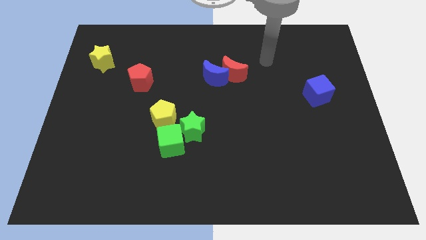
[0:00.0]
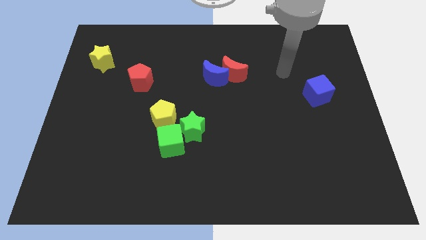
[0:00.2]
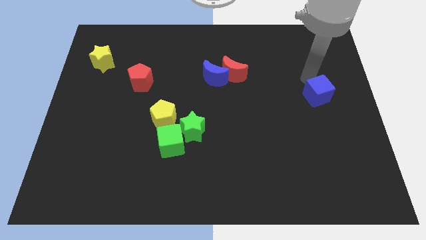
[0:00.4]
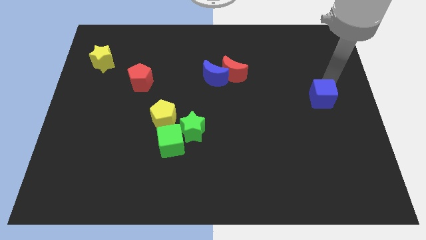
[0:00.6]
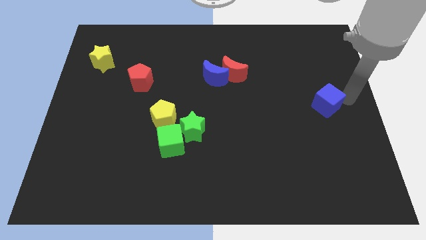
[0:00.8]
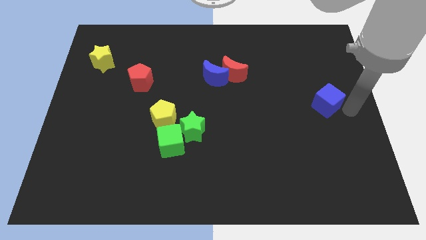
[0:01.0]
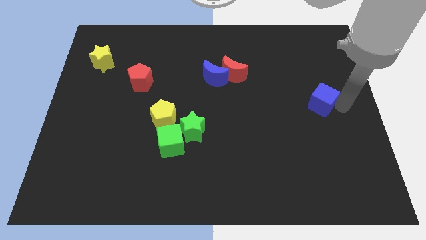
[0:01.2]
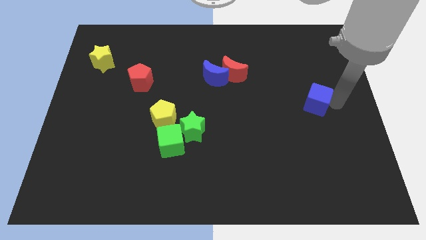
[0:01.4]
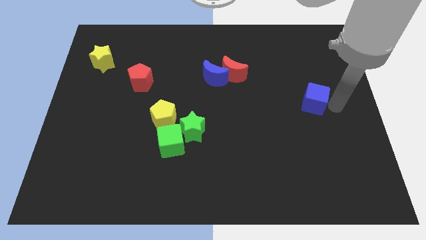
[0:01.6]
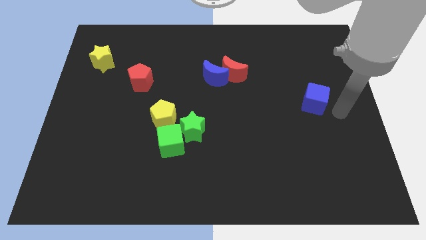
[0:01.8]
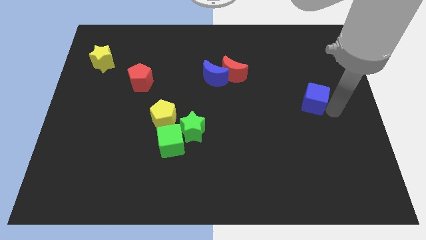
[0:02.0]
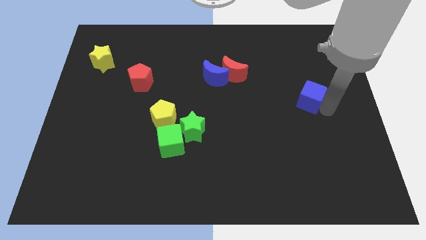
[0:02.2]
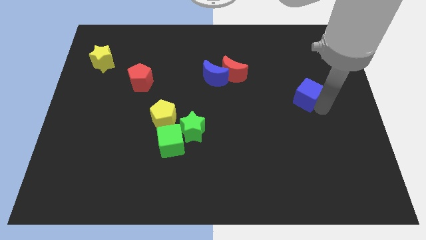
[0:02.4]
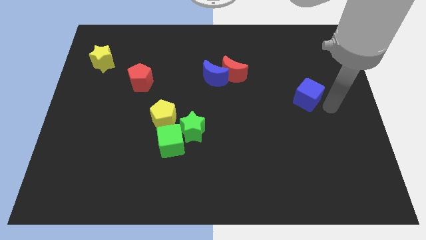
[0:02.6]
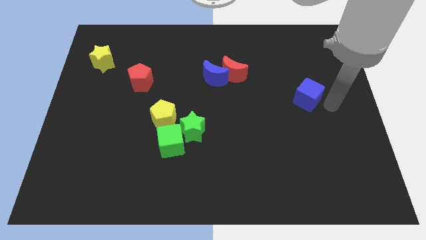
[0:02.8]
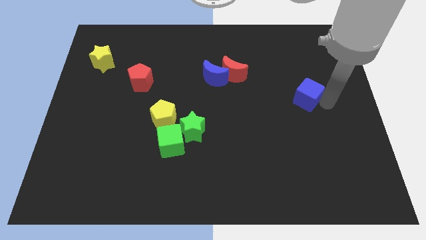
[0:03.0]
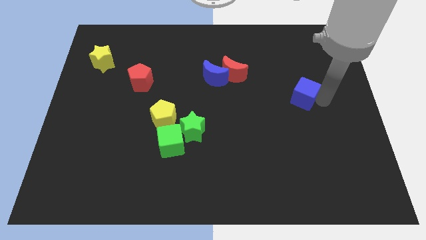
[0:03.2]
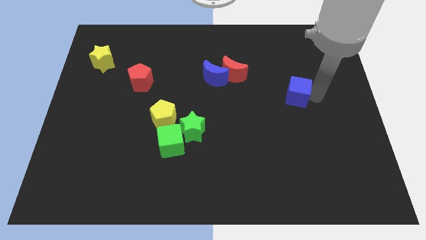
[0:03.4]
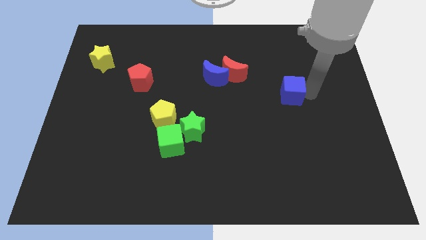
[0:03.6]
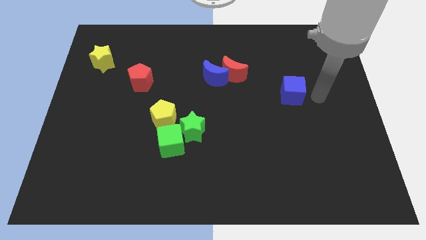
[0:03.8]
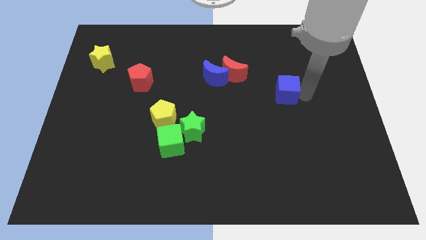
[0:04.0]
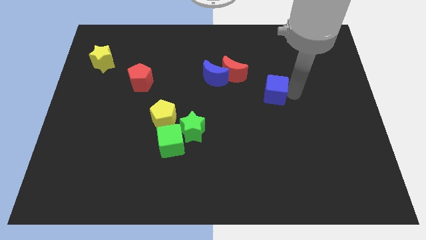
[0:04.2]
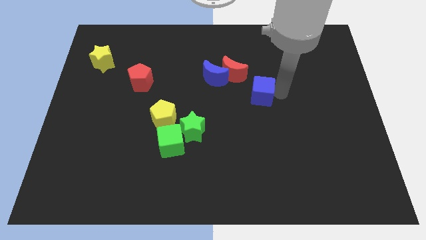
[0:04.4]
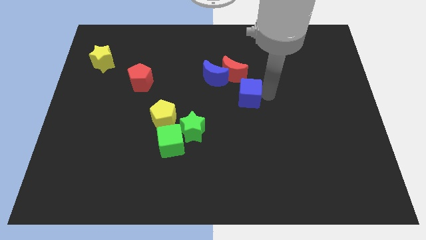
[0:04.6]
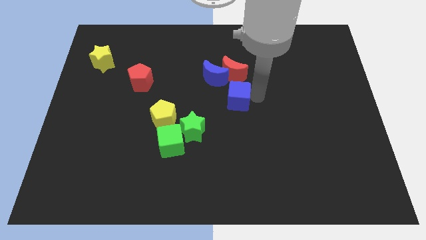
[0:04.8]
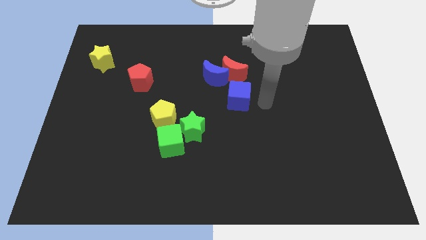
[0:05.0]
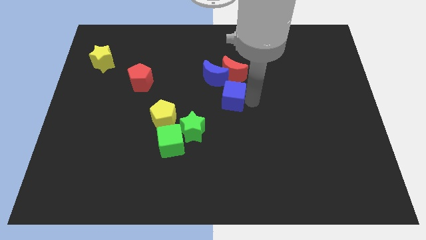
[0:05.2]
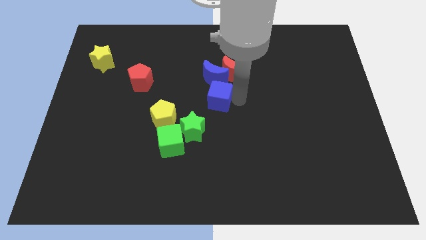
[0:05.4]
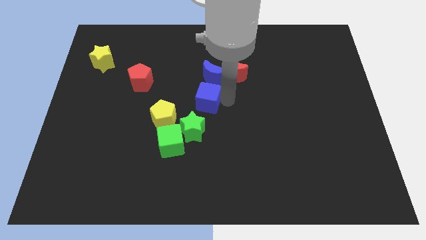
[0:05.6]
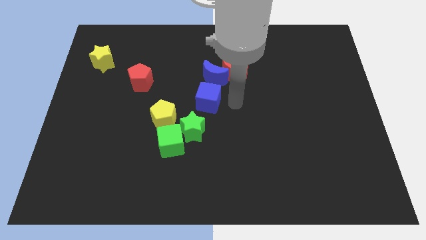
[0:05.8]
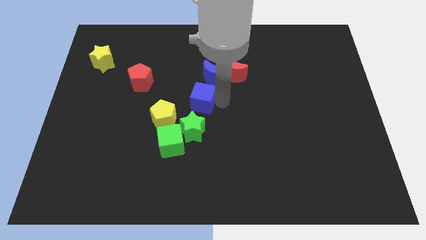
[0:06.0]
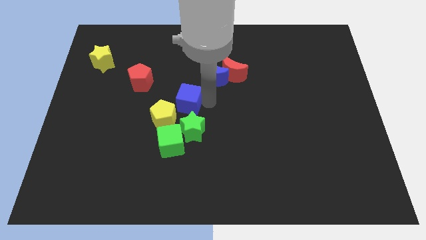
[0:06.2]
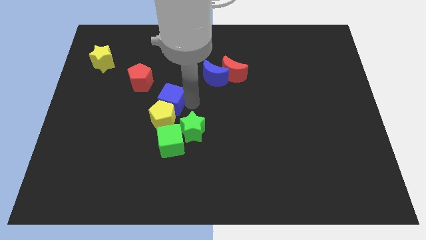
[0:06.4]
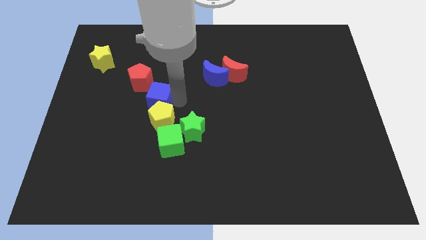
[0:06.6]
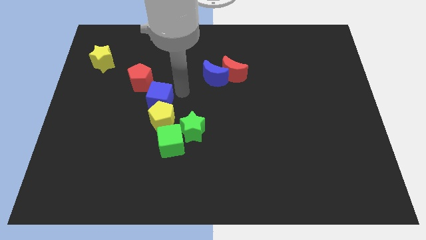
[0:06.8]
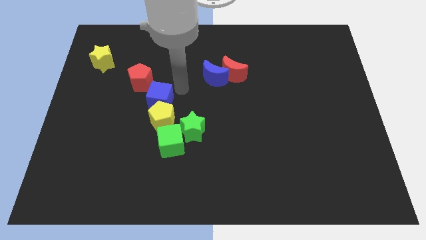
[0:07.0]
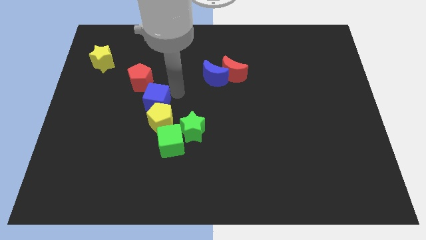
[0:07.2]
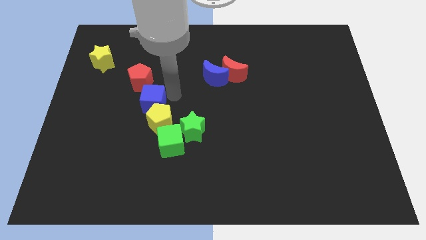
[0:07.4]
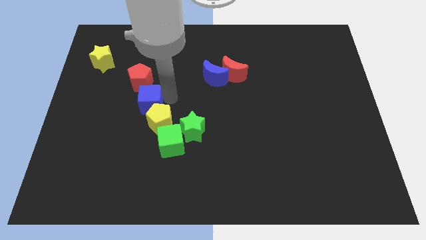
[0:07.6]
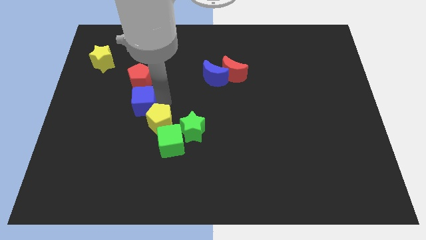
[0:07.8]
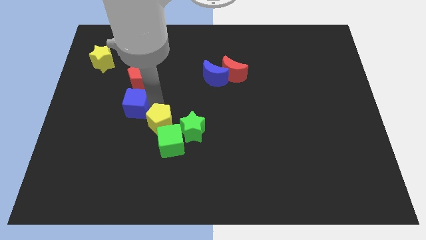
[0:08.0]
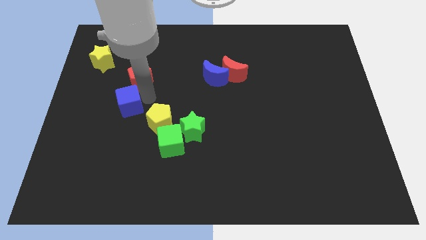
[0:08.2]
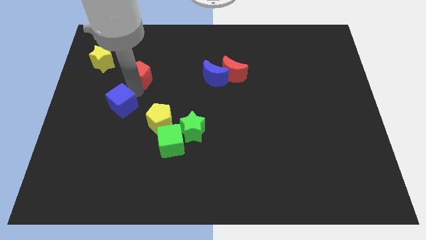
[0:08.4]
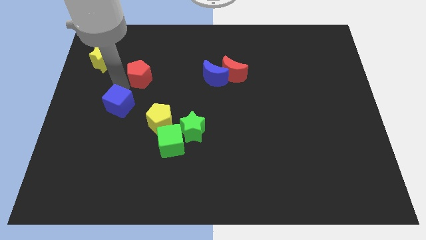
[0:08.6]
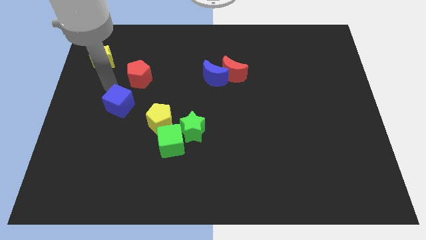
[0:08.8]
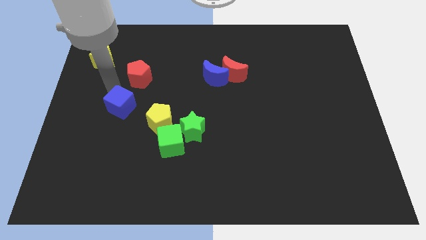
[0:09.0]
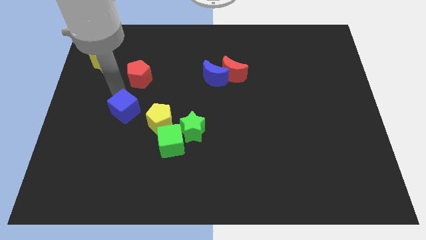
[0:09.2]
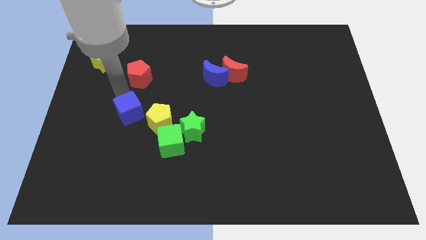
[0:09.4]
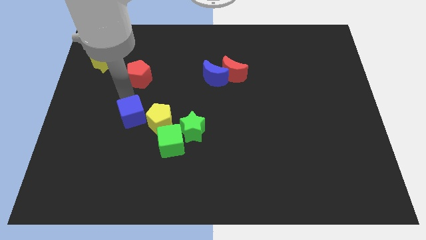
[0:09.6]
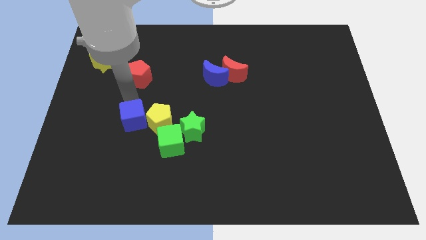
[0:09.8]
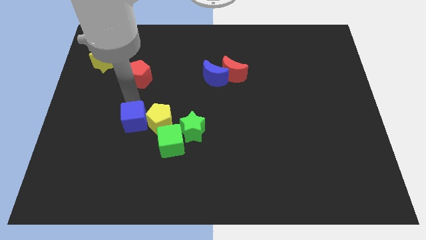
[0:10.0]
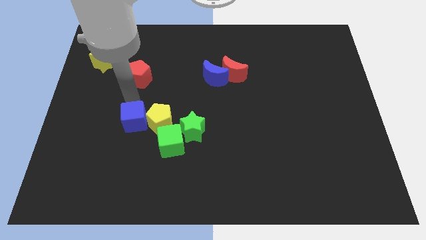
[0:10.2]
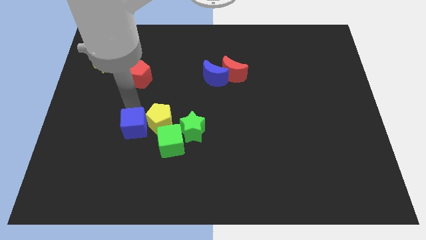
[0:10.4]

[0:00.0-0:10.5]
move the blue cube just left of the green cube

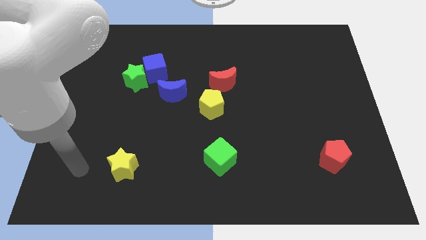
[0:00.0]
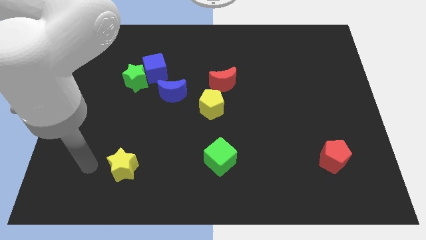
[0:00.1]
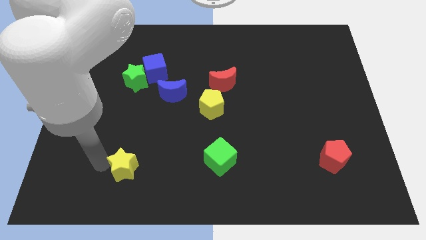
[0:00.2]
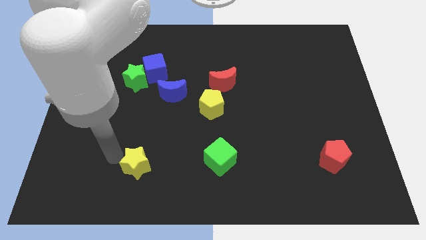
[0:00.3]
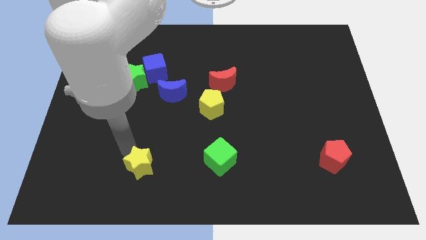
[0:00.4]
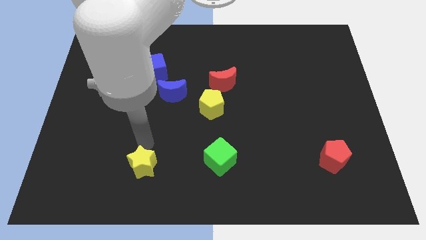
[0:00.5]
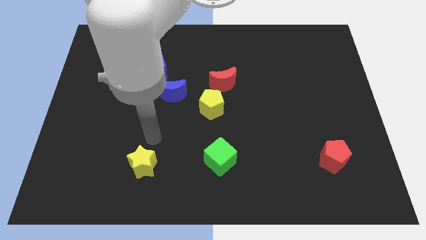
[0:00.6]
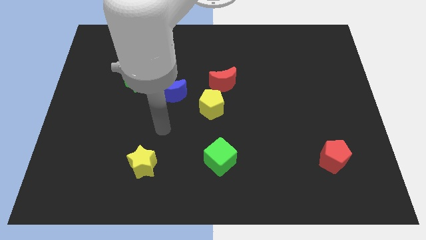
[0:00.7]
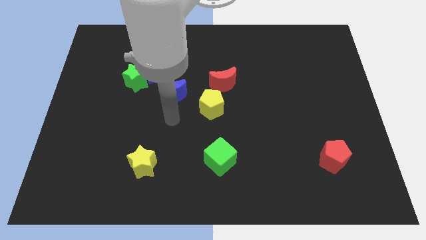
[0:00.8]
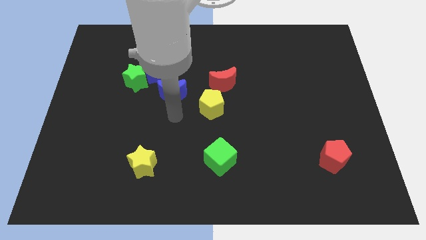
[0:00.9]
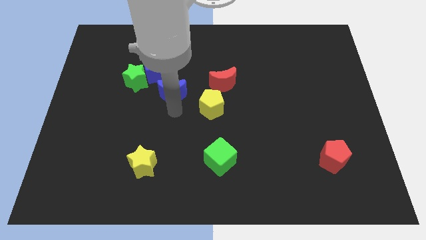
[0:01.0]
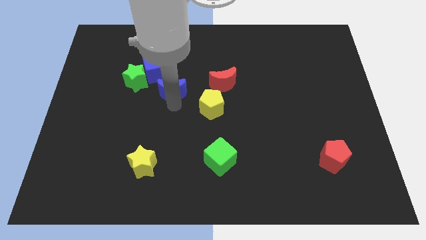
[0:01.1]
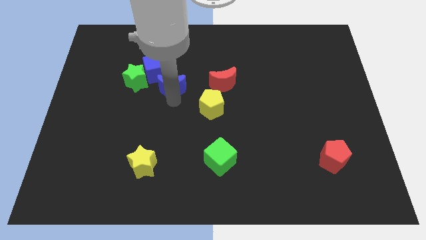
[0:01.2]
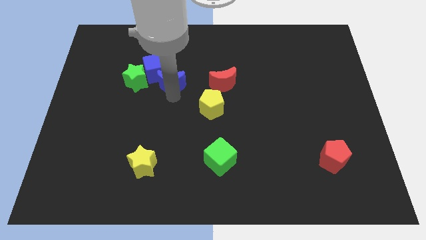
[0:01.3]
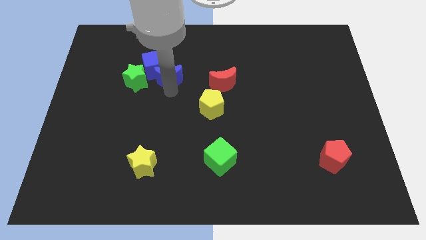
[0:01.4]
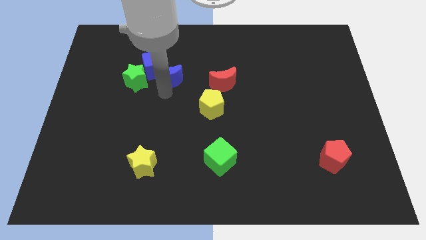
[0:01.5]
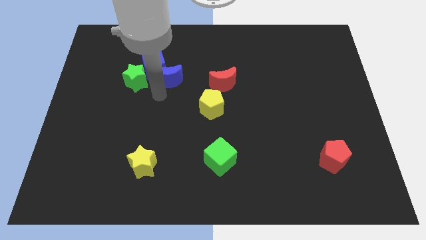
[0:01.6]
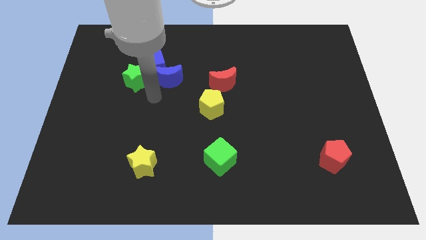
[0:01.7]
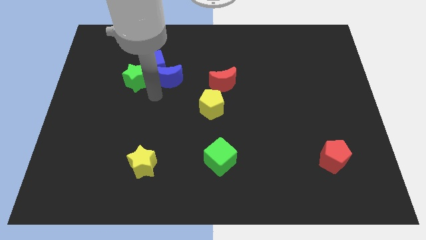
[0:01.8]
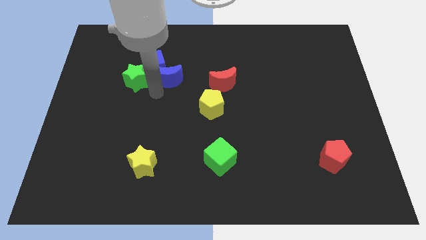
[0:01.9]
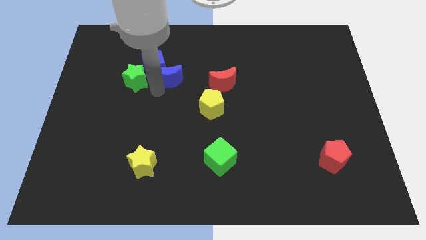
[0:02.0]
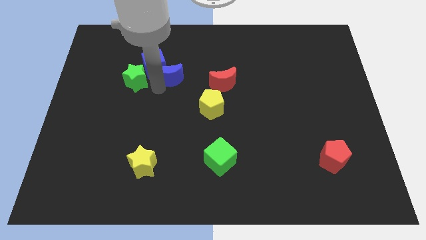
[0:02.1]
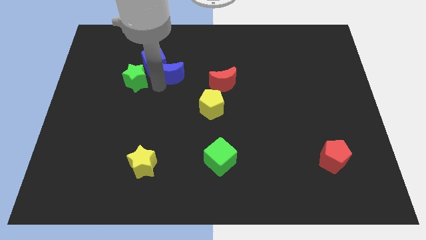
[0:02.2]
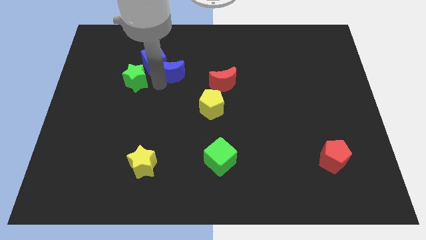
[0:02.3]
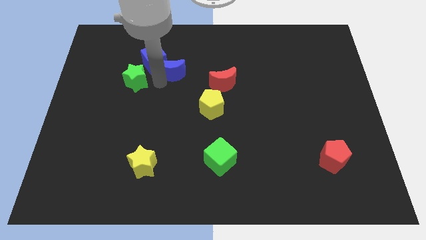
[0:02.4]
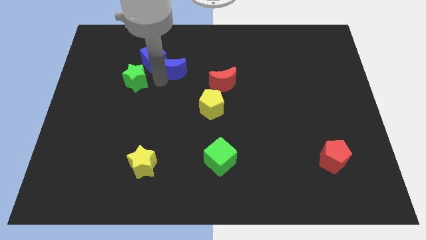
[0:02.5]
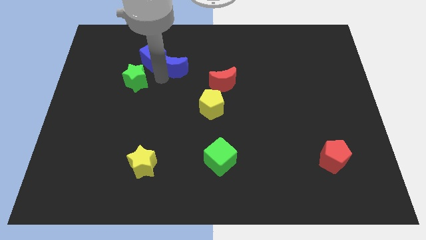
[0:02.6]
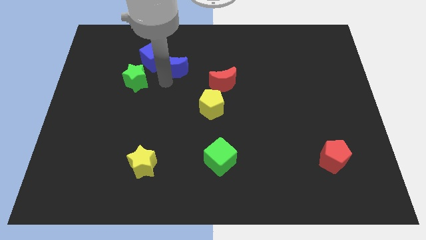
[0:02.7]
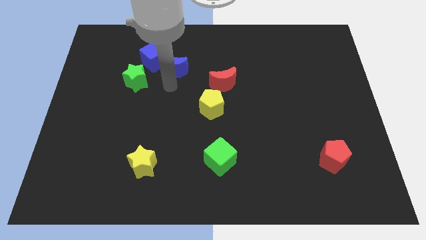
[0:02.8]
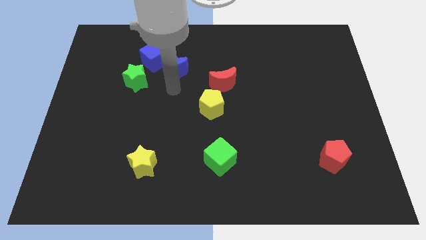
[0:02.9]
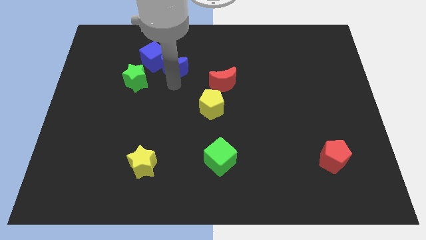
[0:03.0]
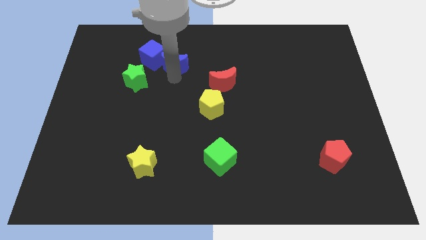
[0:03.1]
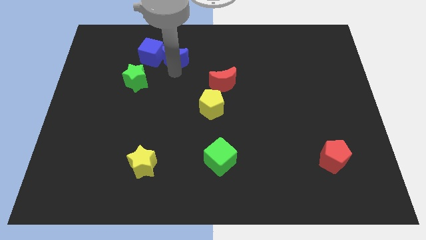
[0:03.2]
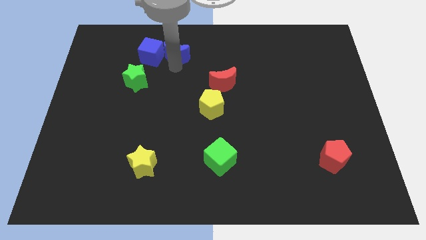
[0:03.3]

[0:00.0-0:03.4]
put the blue moon diagonally up and to the right of the blue cube
